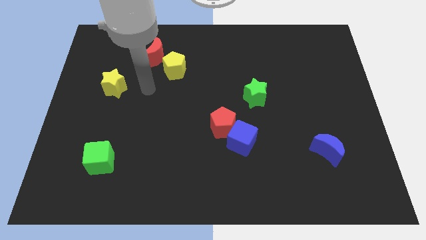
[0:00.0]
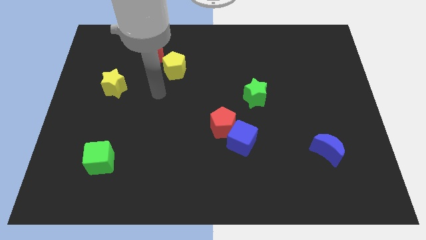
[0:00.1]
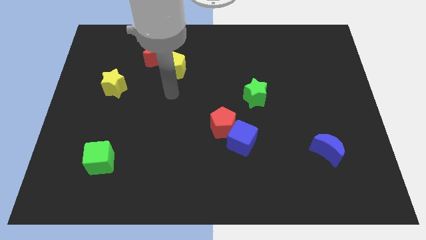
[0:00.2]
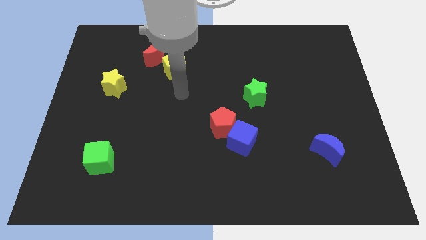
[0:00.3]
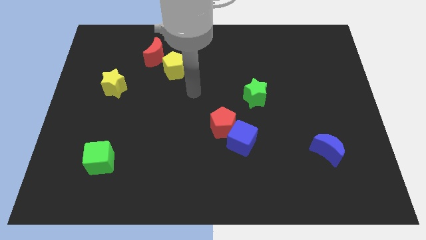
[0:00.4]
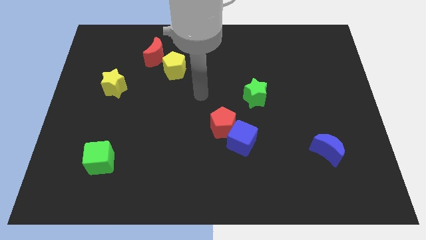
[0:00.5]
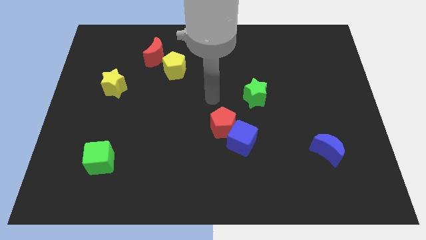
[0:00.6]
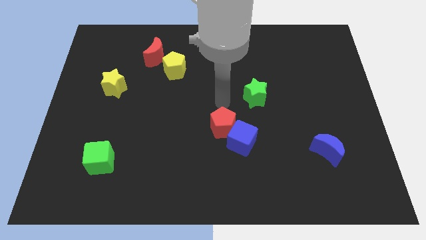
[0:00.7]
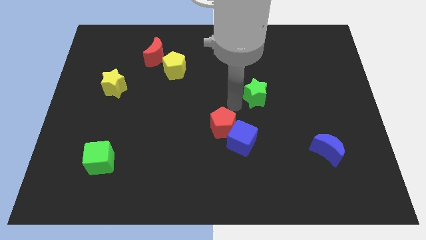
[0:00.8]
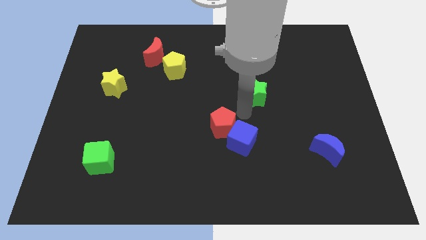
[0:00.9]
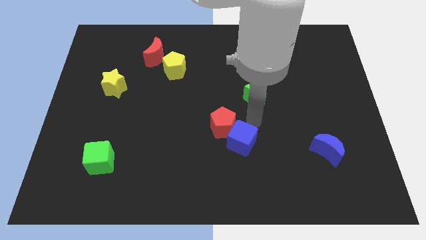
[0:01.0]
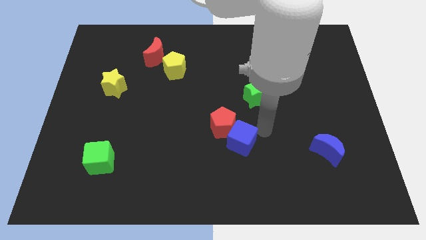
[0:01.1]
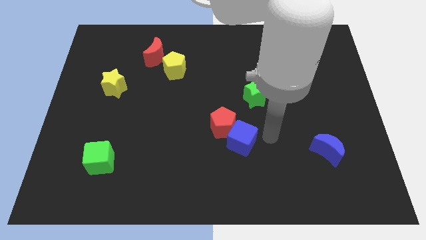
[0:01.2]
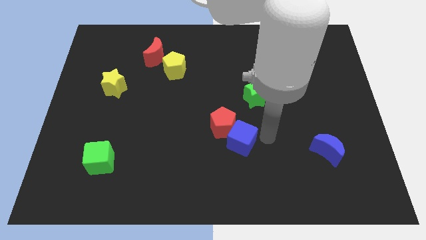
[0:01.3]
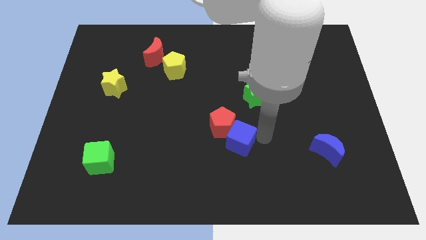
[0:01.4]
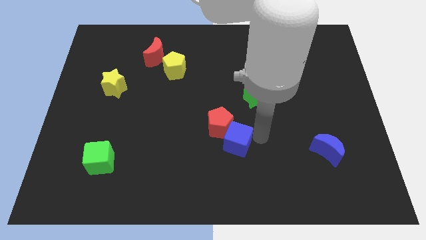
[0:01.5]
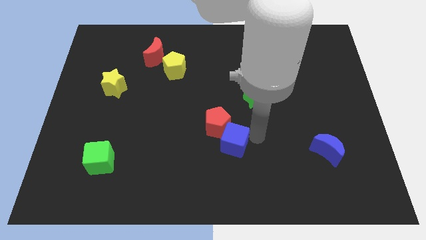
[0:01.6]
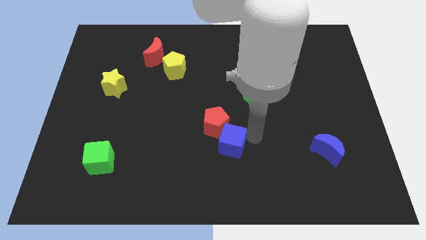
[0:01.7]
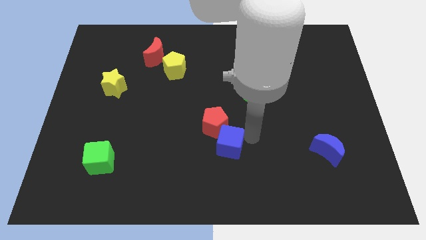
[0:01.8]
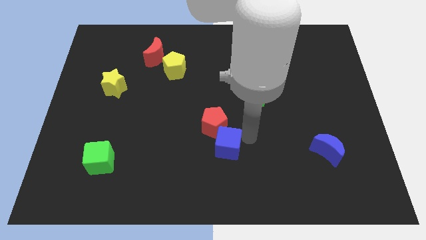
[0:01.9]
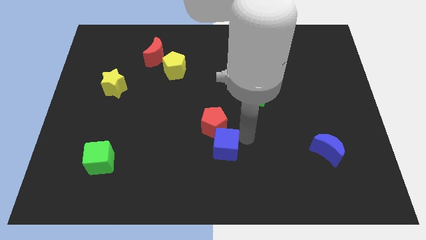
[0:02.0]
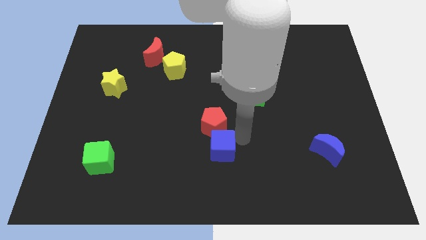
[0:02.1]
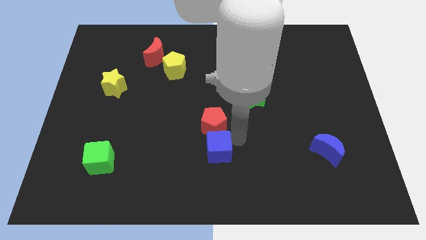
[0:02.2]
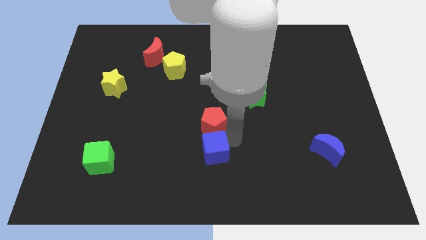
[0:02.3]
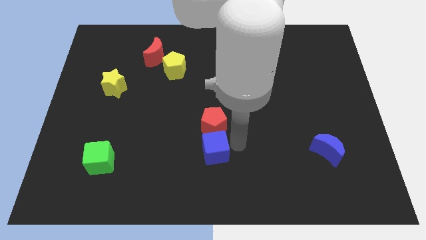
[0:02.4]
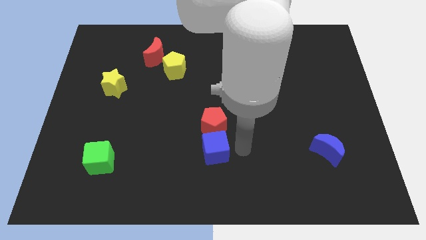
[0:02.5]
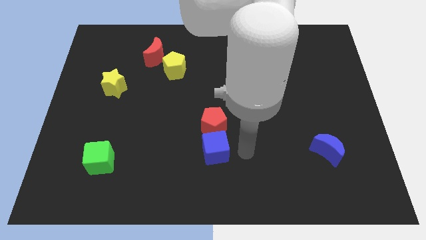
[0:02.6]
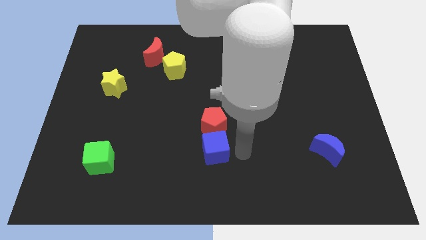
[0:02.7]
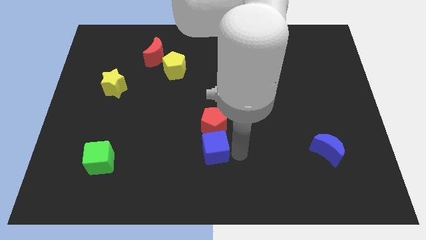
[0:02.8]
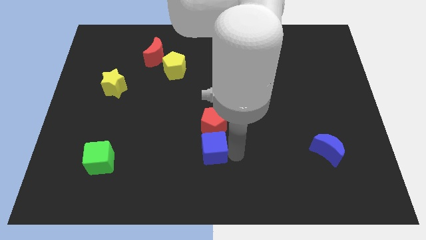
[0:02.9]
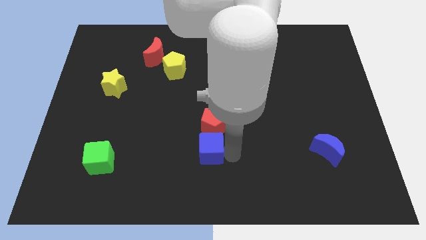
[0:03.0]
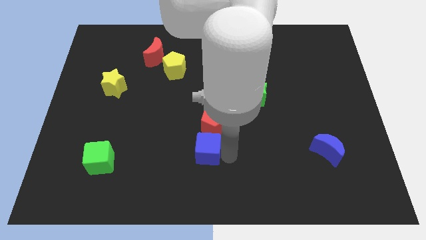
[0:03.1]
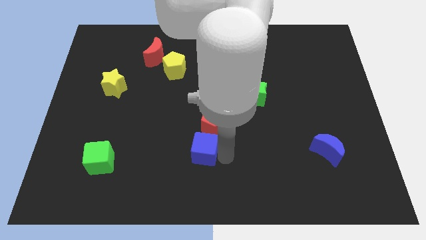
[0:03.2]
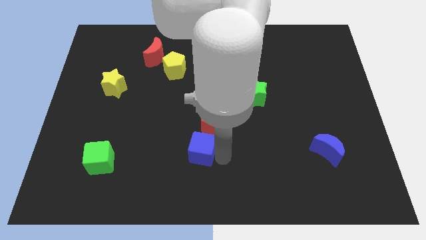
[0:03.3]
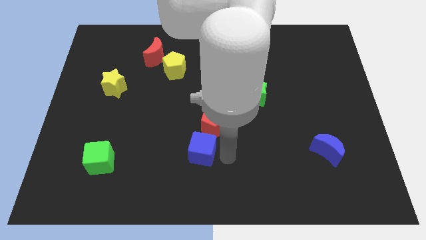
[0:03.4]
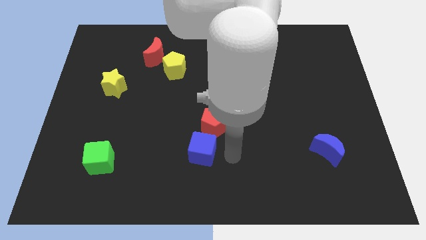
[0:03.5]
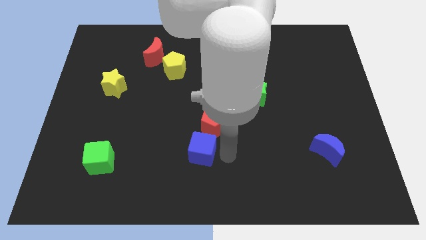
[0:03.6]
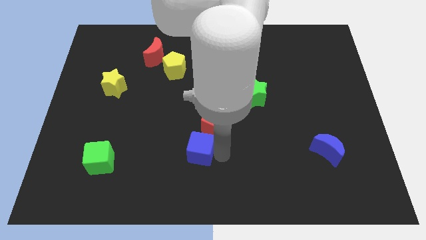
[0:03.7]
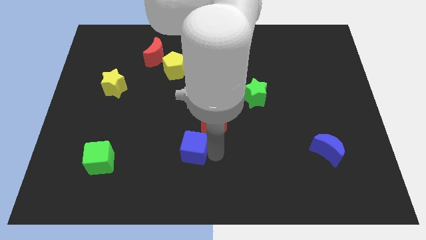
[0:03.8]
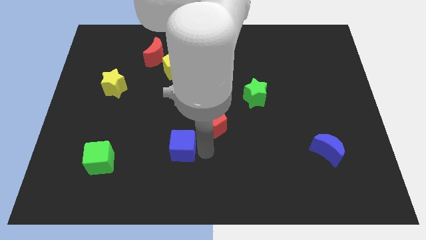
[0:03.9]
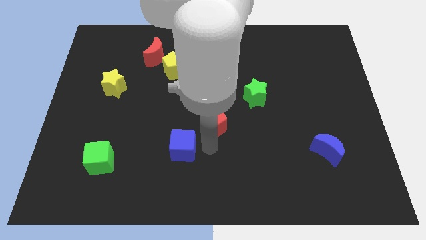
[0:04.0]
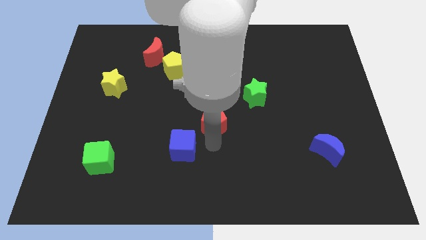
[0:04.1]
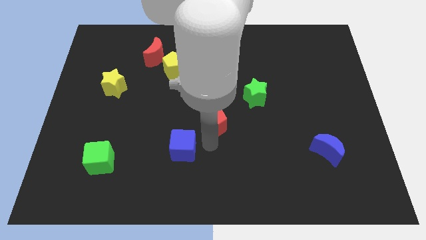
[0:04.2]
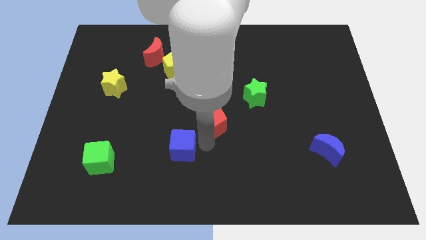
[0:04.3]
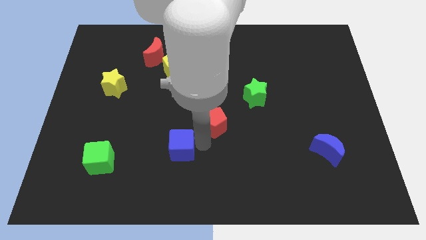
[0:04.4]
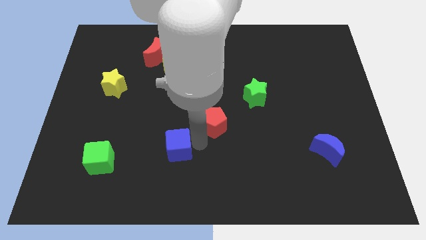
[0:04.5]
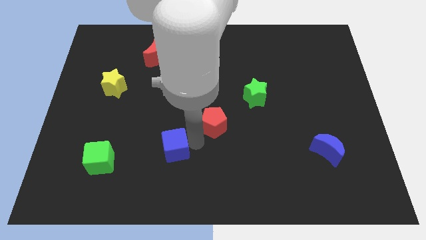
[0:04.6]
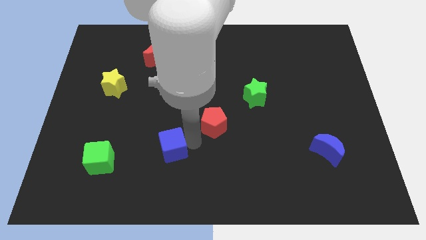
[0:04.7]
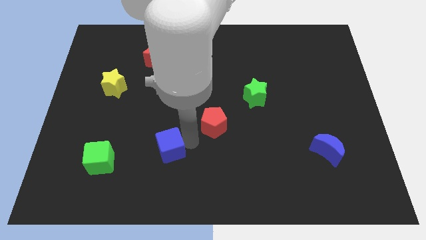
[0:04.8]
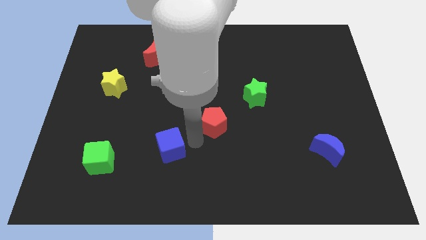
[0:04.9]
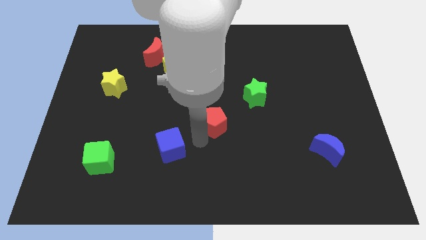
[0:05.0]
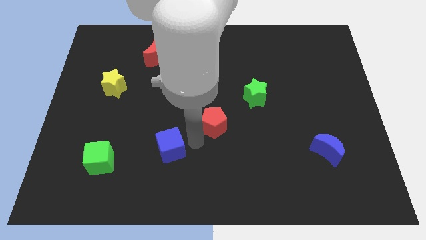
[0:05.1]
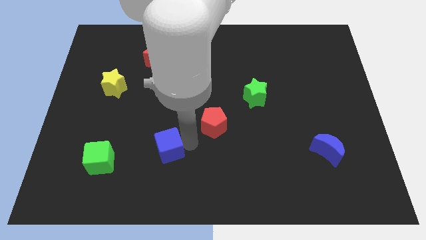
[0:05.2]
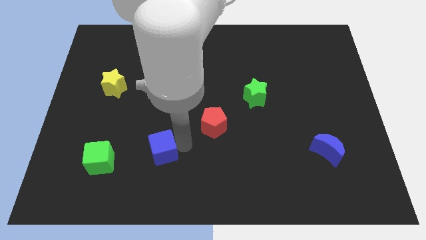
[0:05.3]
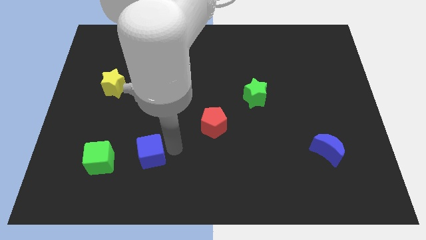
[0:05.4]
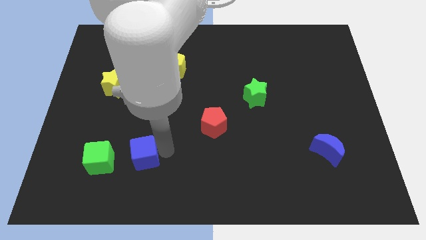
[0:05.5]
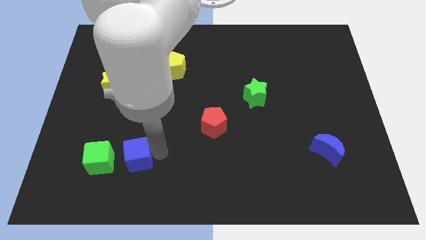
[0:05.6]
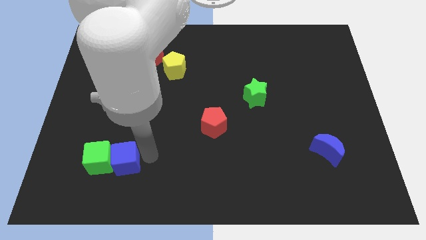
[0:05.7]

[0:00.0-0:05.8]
move the blue cube next to the green cube

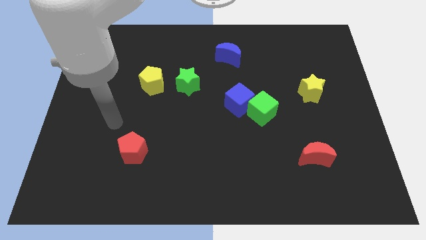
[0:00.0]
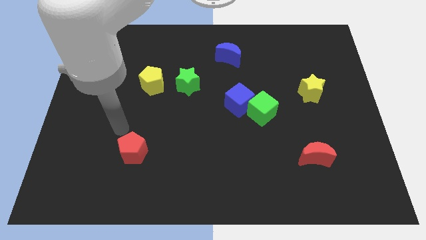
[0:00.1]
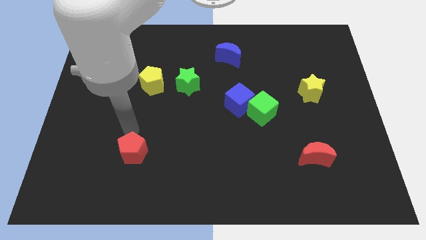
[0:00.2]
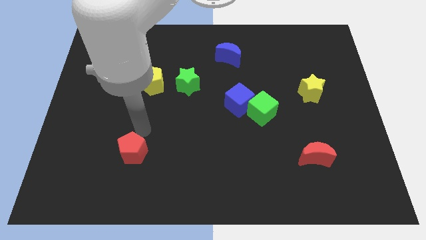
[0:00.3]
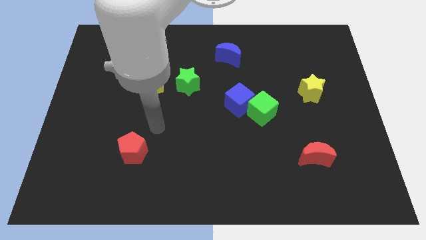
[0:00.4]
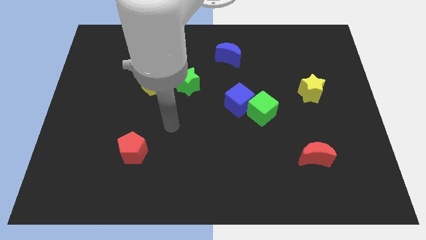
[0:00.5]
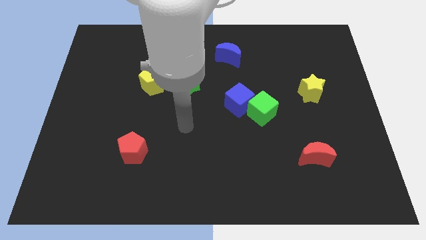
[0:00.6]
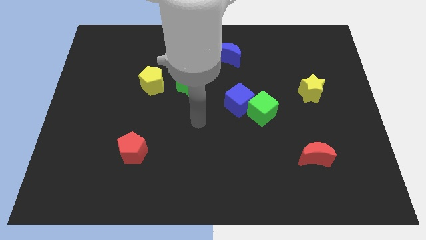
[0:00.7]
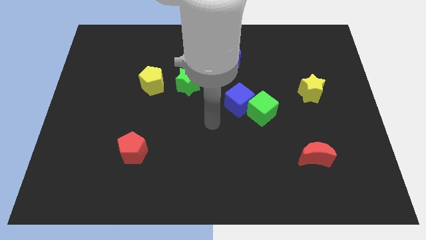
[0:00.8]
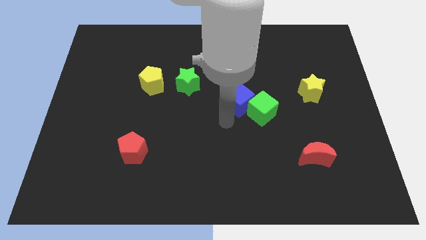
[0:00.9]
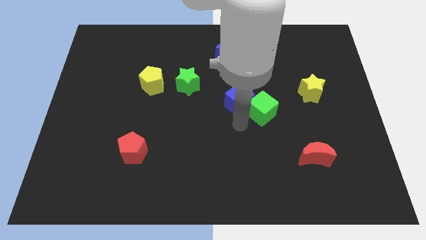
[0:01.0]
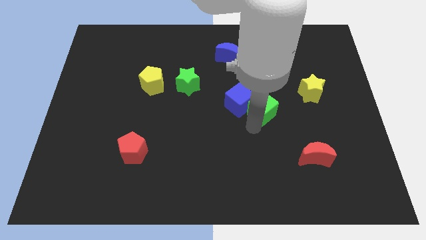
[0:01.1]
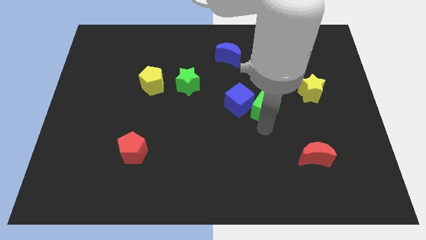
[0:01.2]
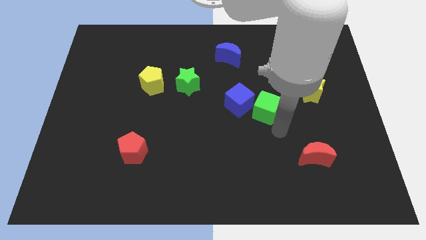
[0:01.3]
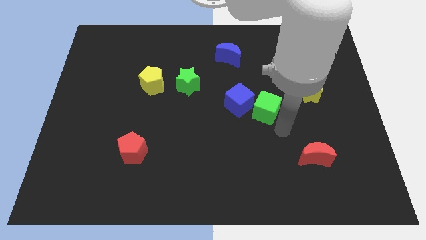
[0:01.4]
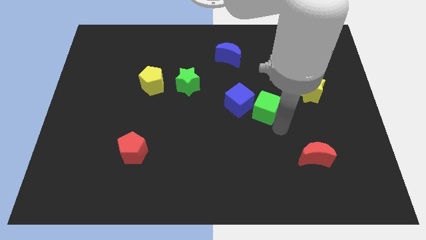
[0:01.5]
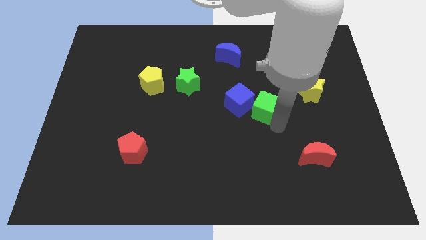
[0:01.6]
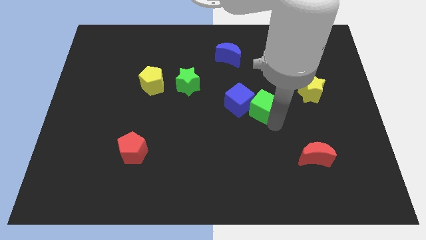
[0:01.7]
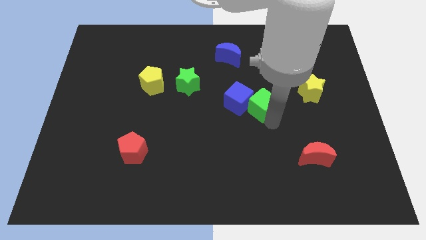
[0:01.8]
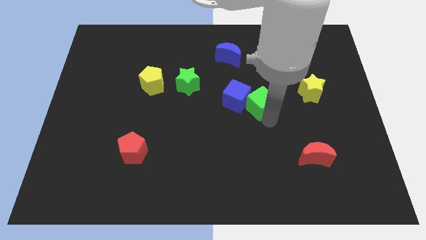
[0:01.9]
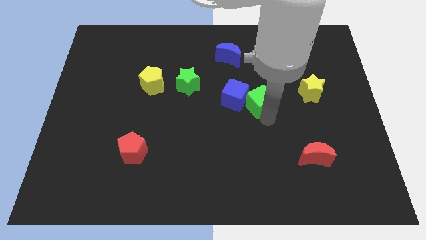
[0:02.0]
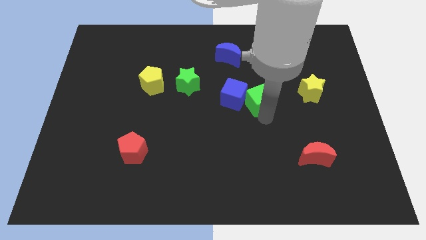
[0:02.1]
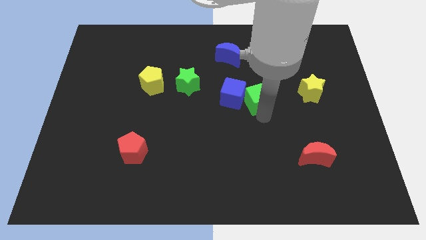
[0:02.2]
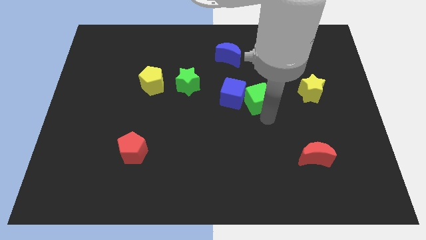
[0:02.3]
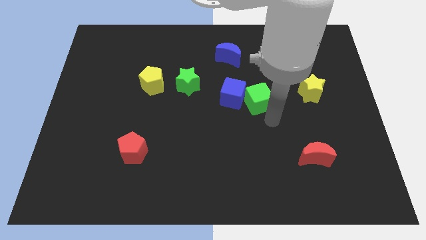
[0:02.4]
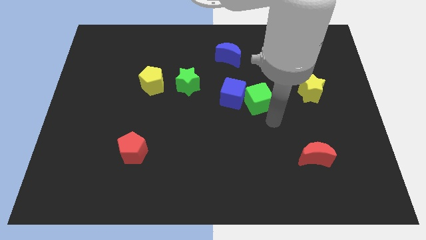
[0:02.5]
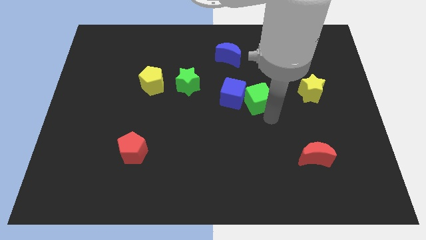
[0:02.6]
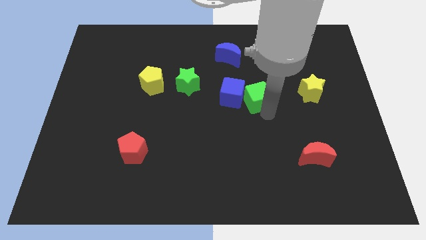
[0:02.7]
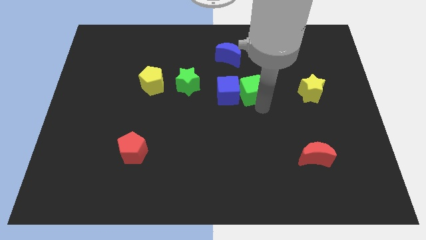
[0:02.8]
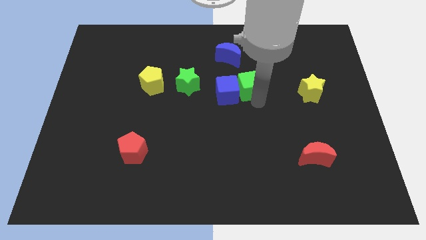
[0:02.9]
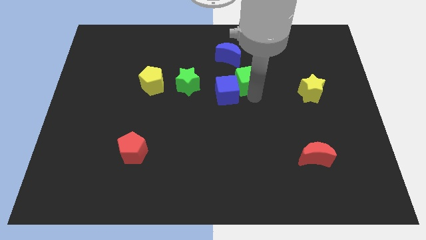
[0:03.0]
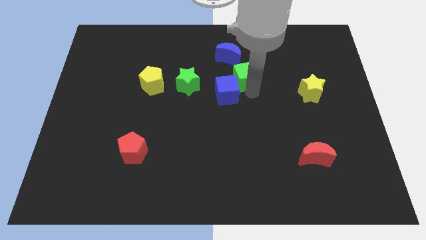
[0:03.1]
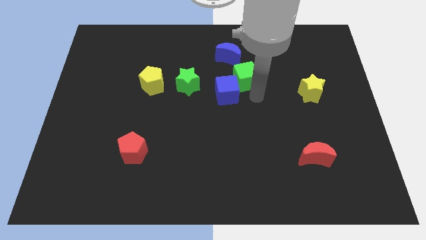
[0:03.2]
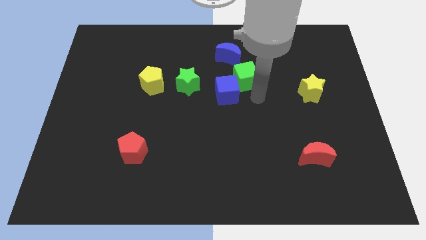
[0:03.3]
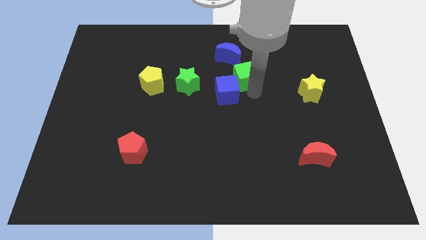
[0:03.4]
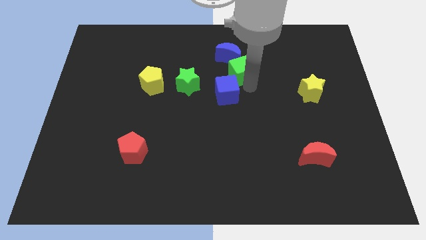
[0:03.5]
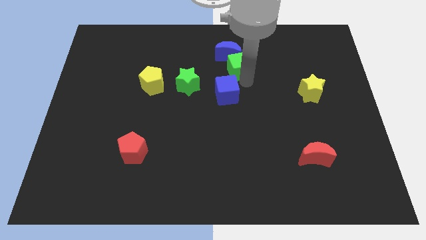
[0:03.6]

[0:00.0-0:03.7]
put the green cube close to the blue moon
